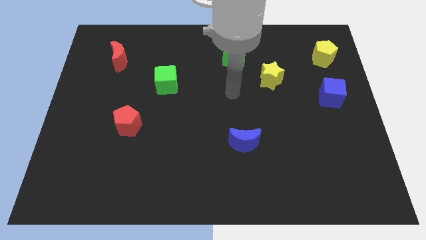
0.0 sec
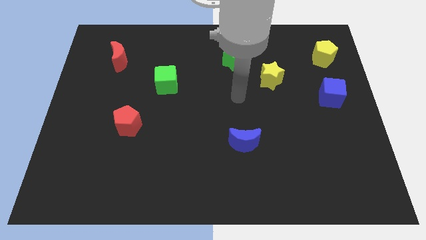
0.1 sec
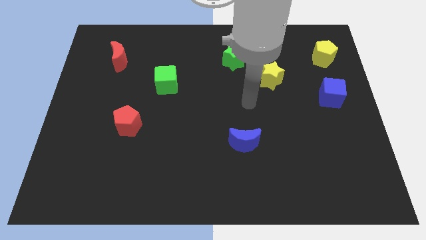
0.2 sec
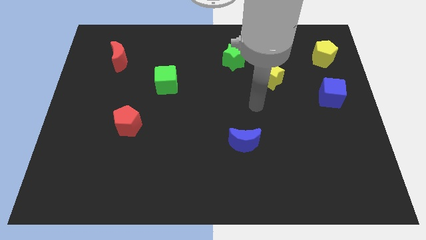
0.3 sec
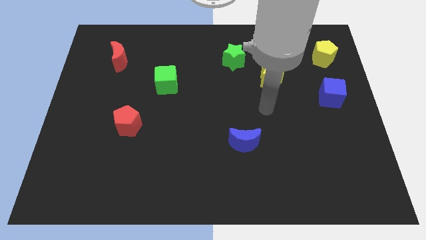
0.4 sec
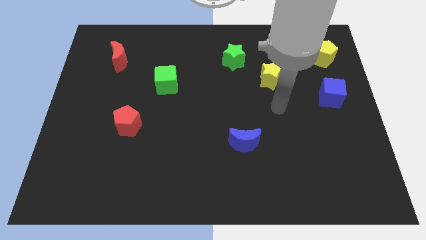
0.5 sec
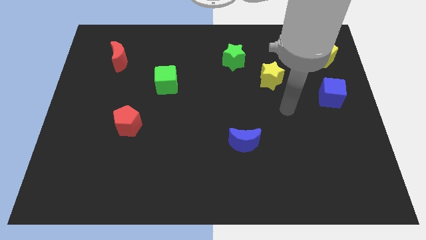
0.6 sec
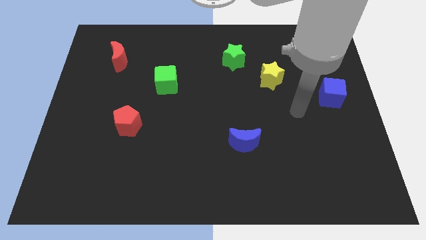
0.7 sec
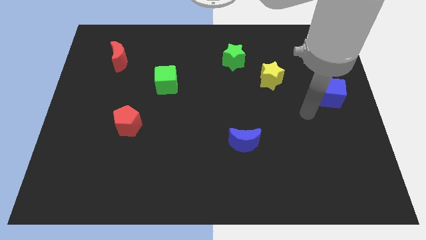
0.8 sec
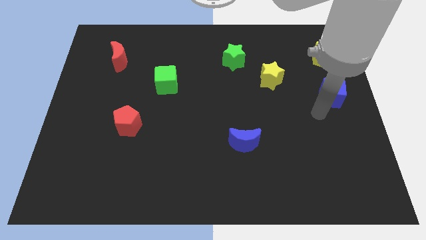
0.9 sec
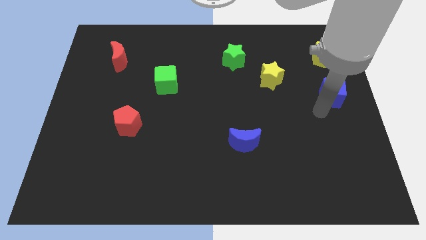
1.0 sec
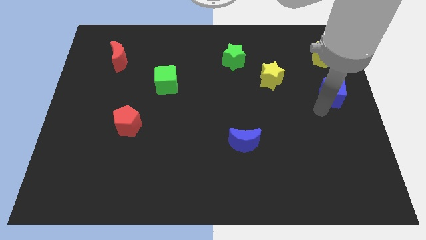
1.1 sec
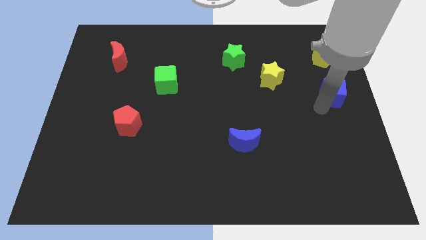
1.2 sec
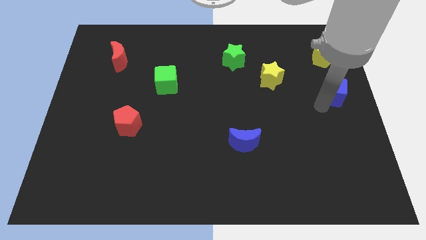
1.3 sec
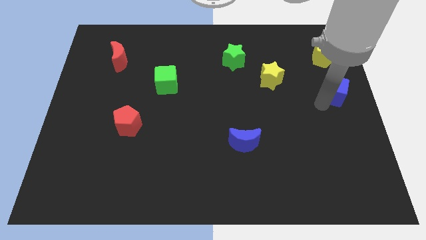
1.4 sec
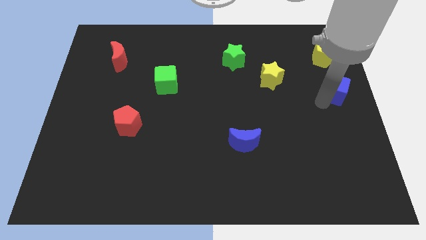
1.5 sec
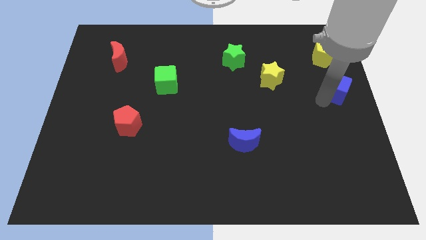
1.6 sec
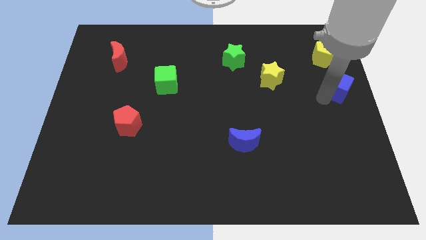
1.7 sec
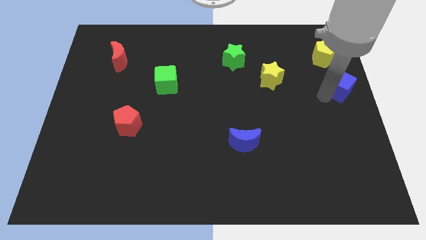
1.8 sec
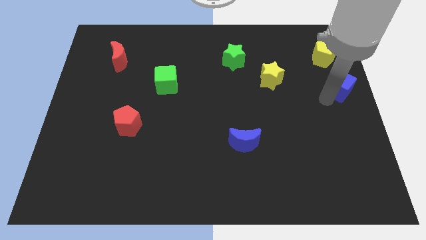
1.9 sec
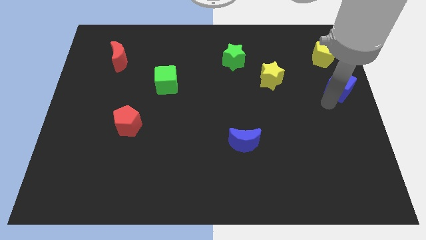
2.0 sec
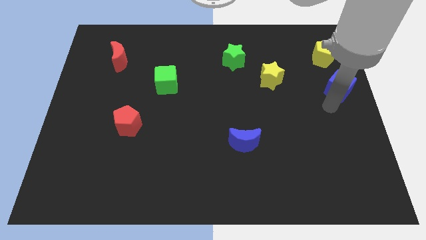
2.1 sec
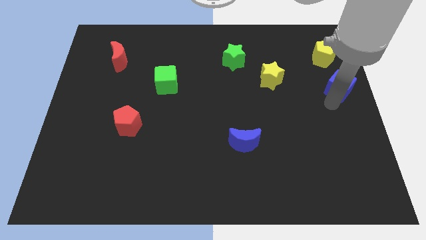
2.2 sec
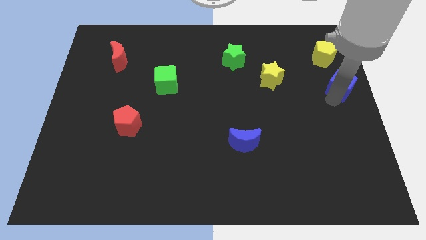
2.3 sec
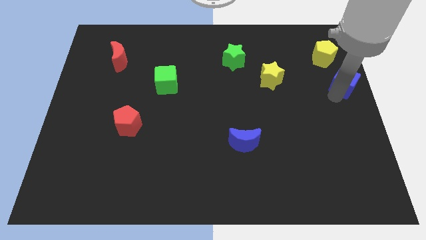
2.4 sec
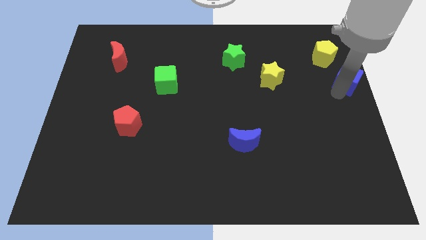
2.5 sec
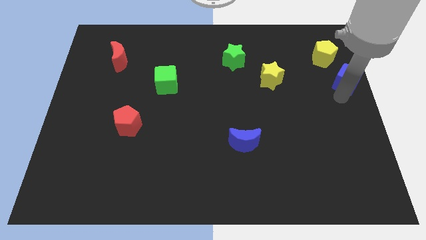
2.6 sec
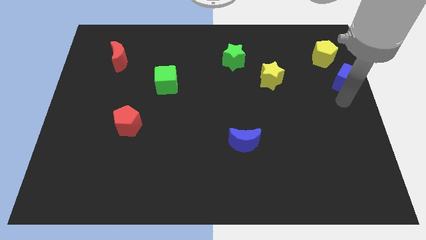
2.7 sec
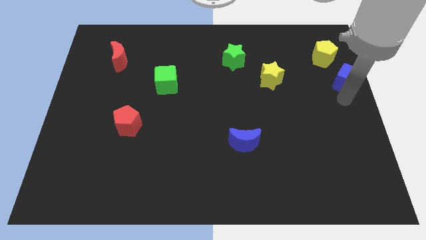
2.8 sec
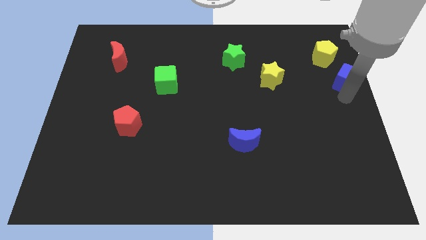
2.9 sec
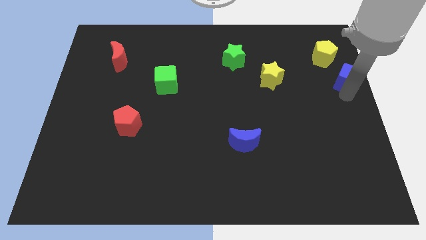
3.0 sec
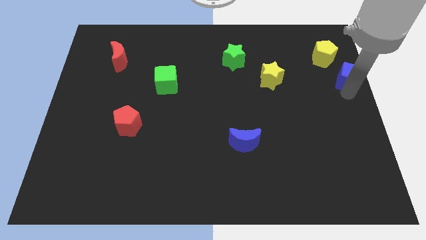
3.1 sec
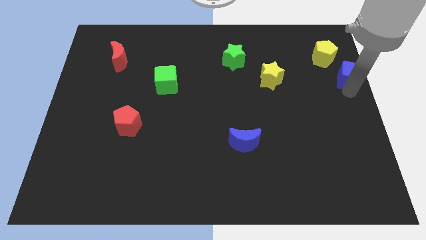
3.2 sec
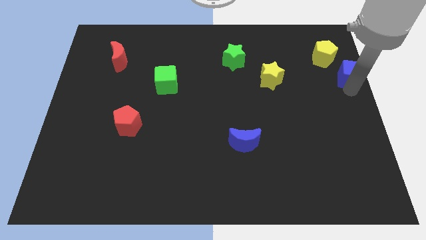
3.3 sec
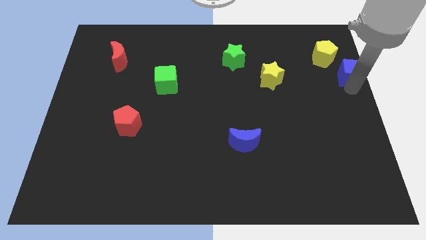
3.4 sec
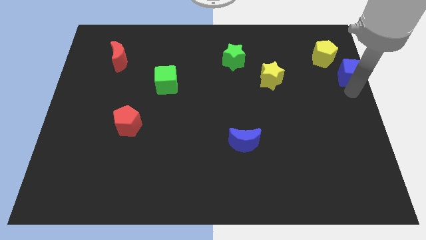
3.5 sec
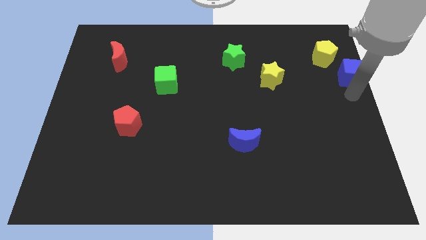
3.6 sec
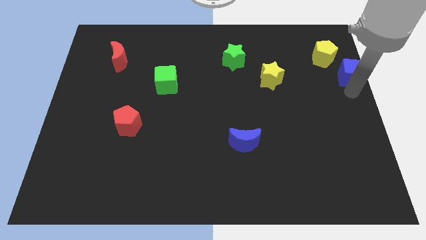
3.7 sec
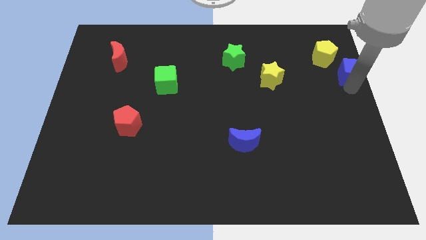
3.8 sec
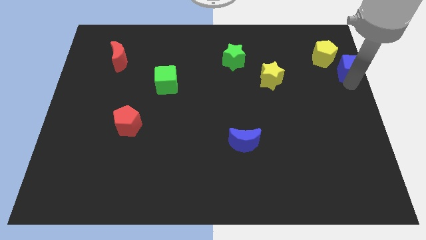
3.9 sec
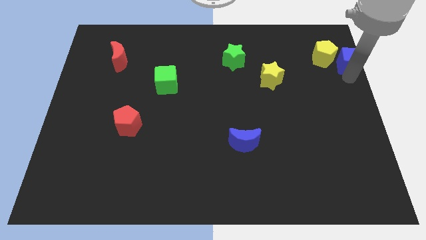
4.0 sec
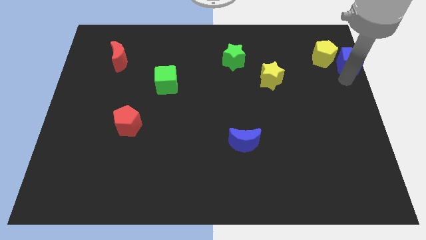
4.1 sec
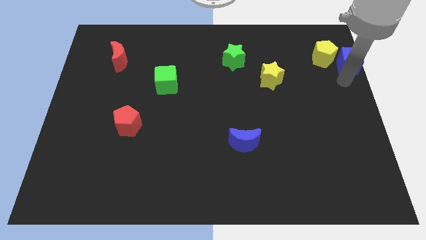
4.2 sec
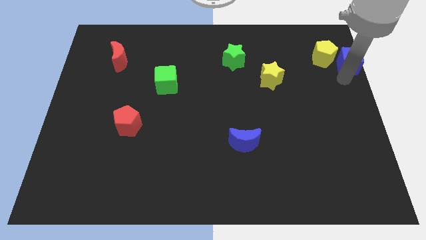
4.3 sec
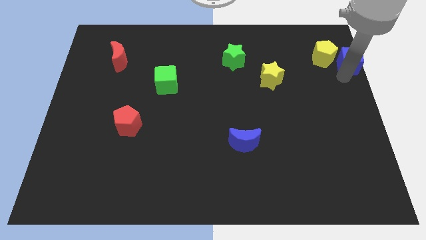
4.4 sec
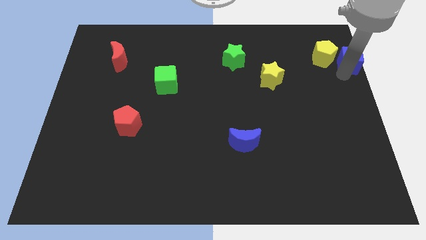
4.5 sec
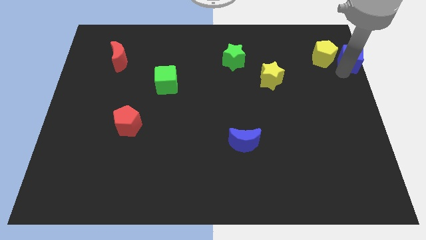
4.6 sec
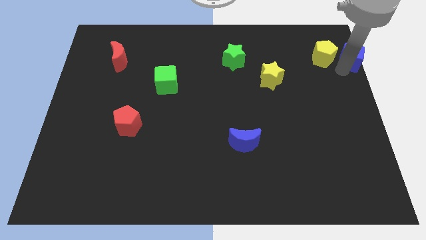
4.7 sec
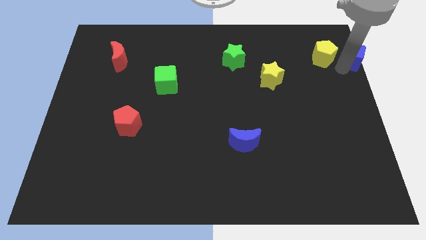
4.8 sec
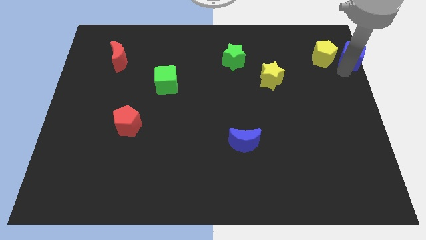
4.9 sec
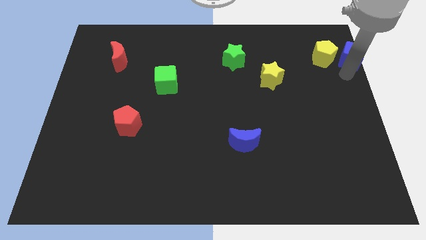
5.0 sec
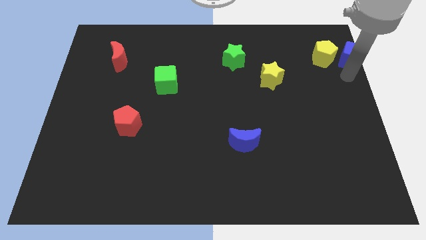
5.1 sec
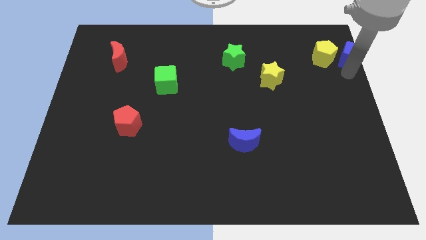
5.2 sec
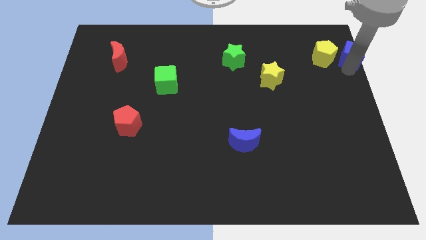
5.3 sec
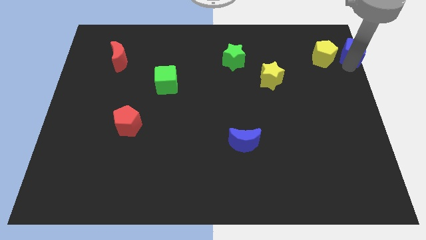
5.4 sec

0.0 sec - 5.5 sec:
put the blue cube to the upper right corner
